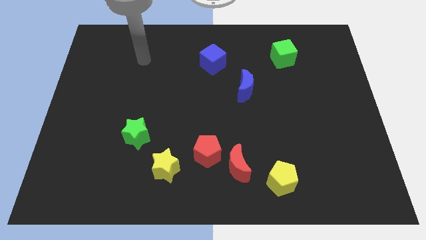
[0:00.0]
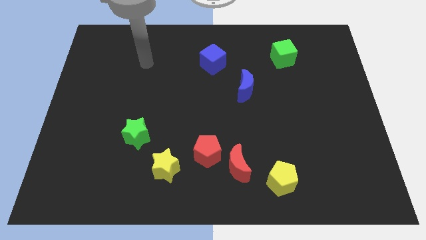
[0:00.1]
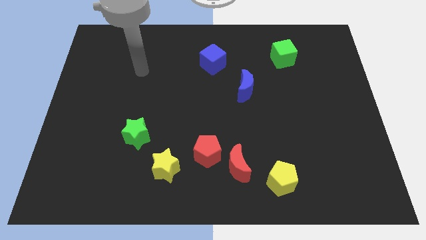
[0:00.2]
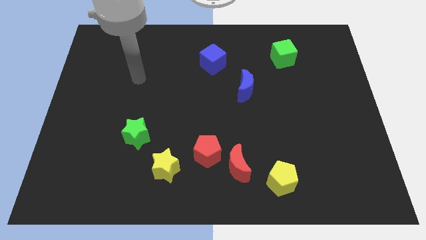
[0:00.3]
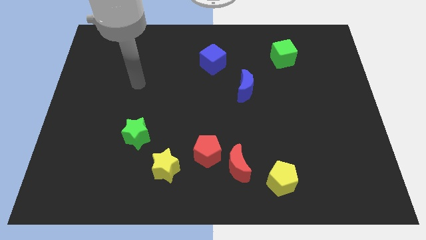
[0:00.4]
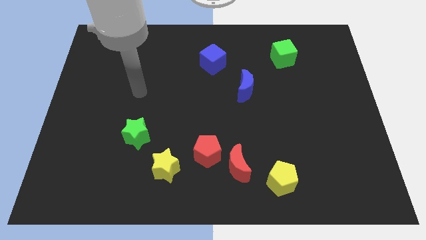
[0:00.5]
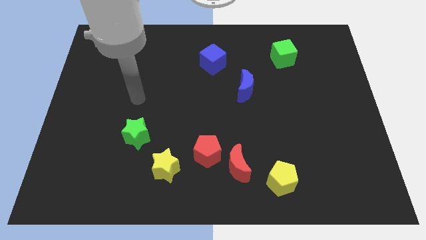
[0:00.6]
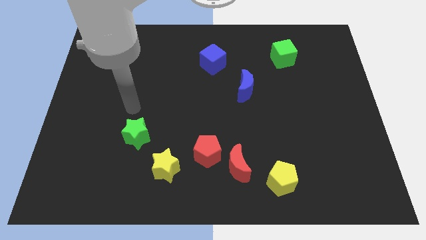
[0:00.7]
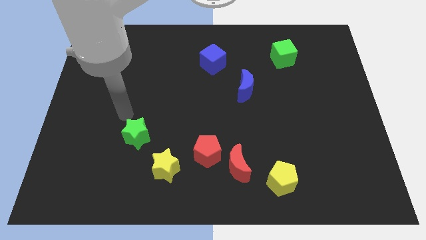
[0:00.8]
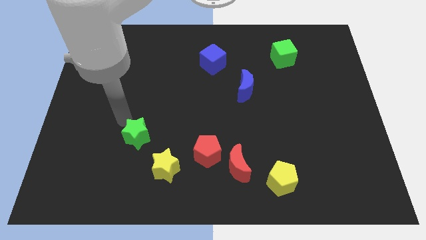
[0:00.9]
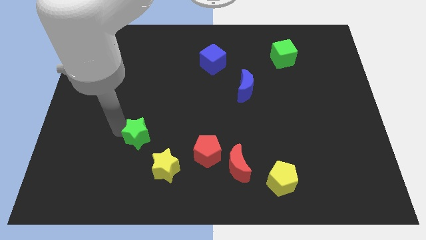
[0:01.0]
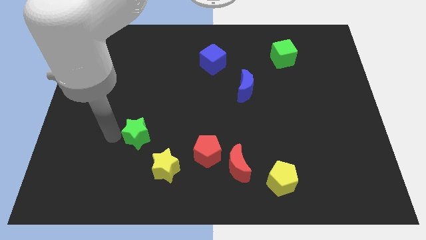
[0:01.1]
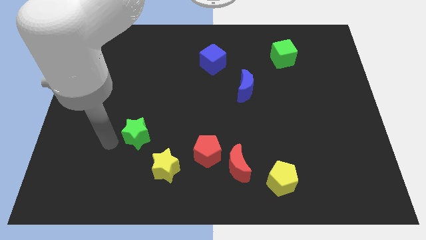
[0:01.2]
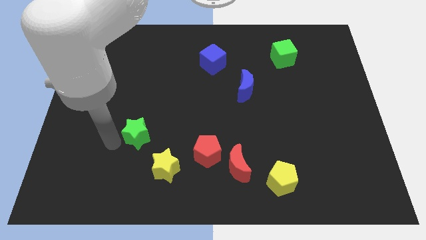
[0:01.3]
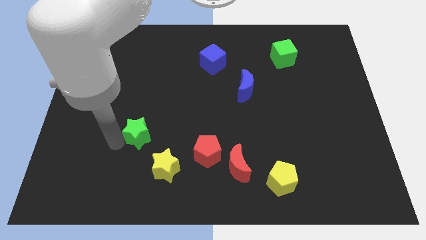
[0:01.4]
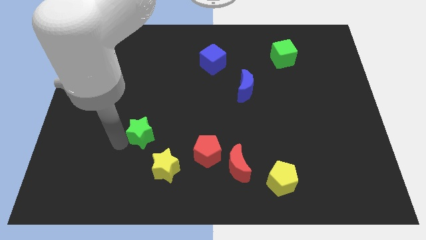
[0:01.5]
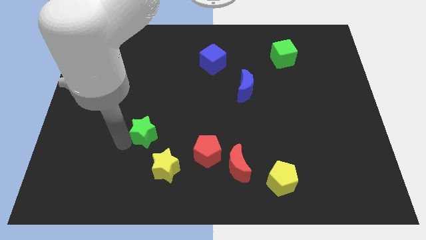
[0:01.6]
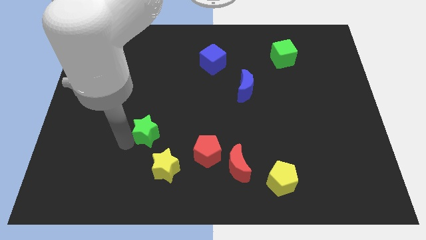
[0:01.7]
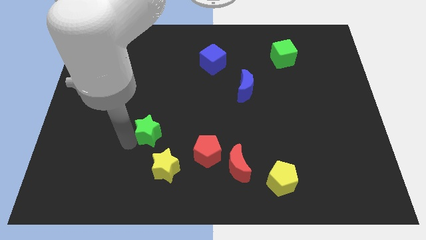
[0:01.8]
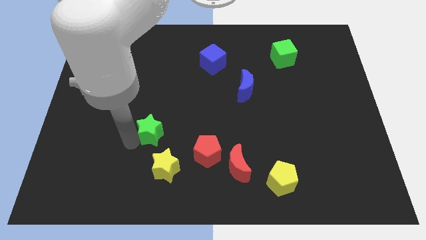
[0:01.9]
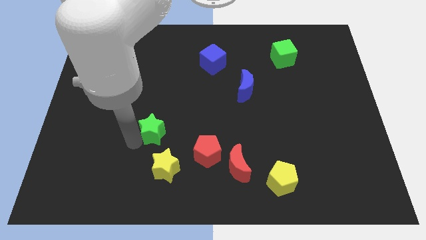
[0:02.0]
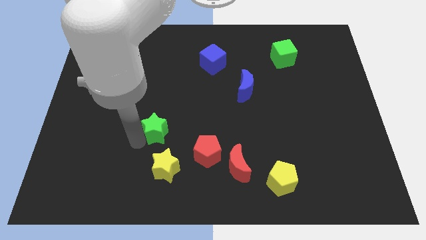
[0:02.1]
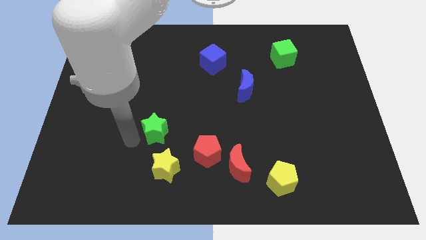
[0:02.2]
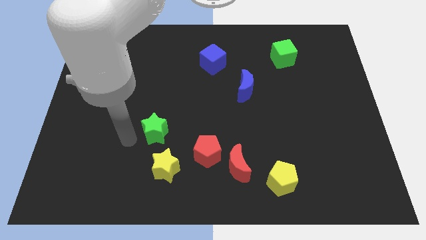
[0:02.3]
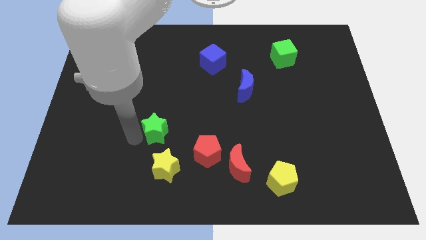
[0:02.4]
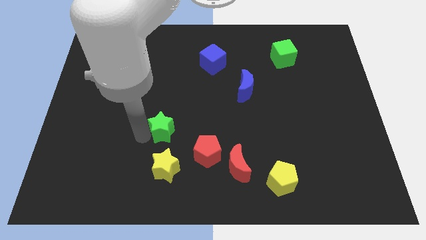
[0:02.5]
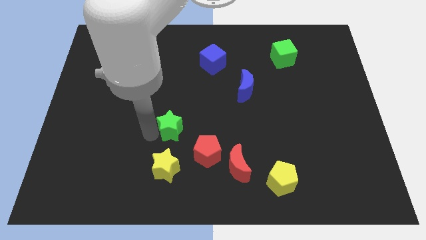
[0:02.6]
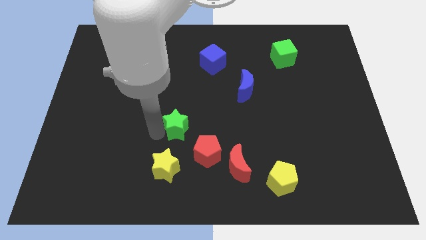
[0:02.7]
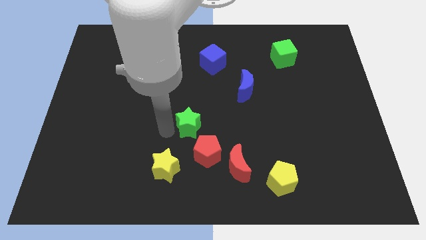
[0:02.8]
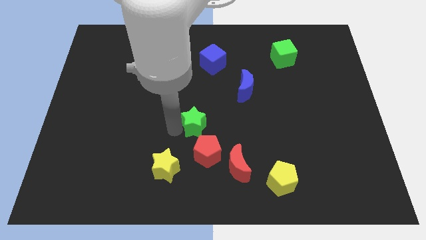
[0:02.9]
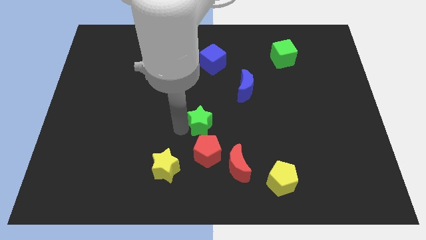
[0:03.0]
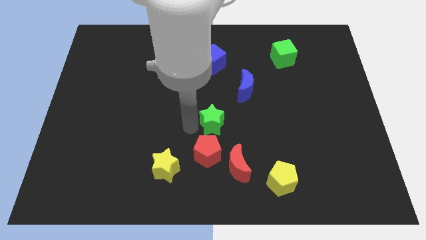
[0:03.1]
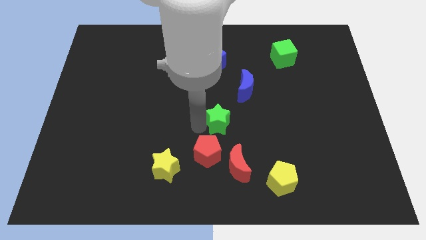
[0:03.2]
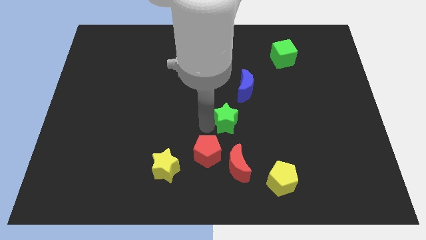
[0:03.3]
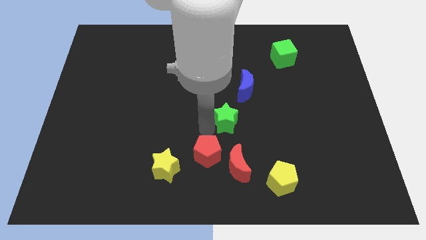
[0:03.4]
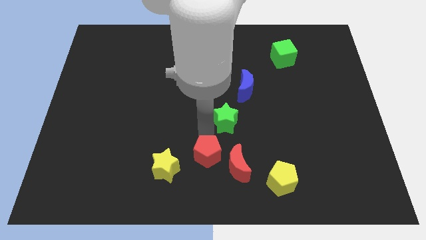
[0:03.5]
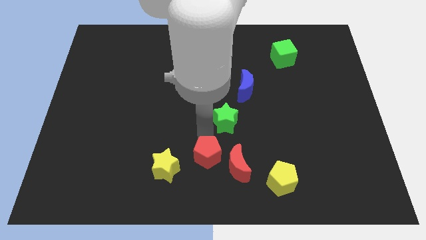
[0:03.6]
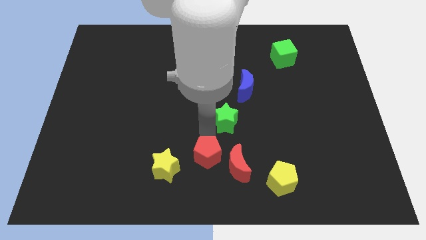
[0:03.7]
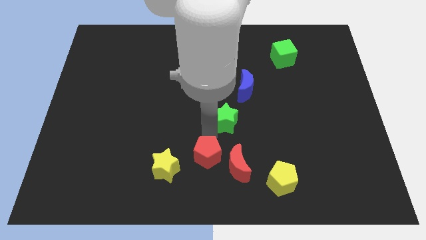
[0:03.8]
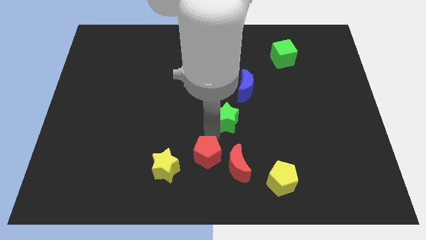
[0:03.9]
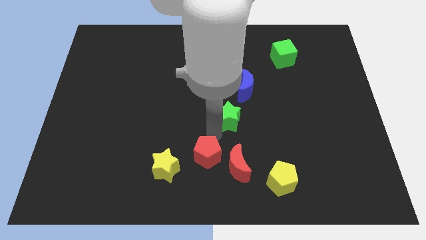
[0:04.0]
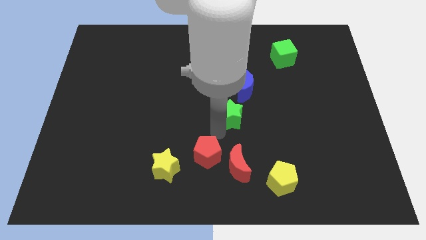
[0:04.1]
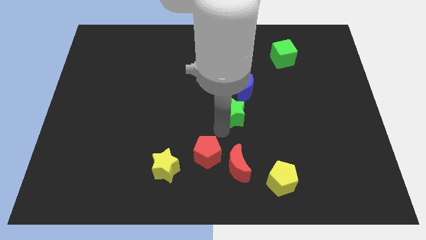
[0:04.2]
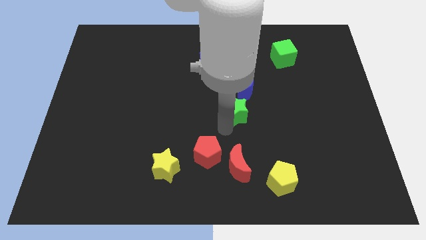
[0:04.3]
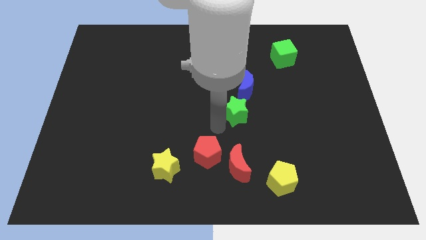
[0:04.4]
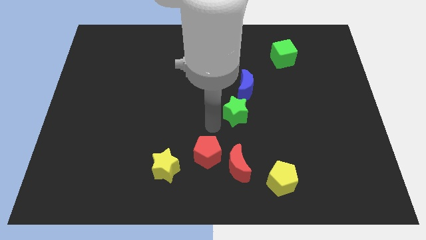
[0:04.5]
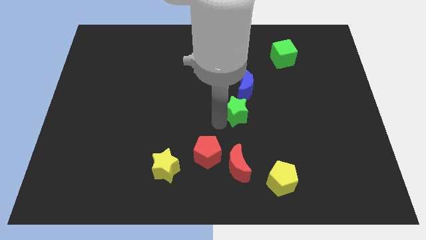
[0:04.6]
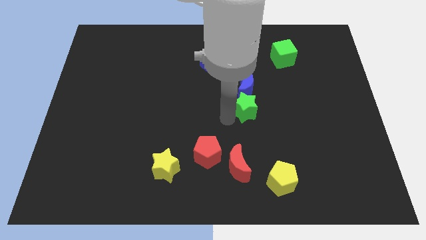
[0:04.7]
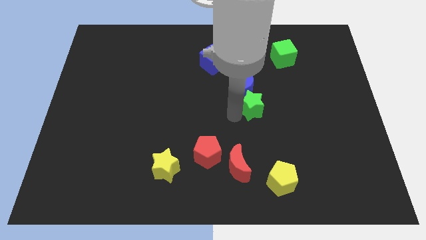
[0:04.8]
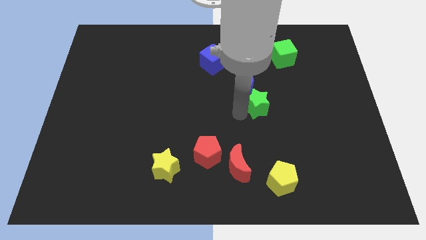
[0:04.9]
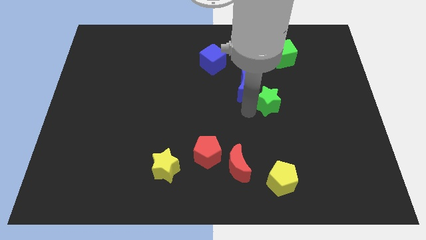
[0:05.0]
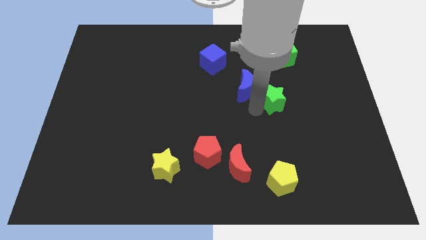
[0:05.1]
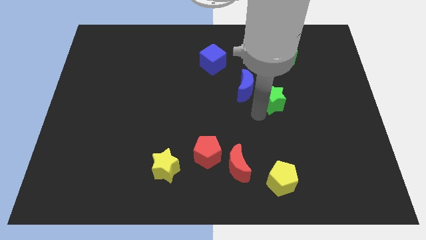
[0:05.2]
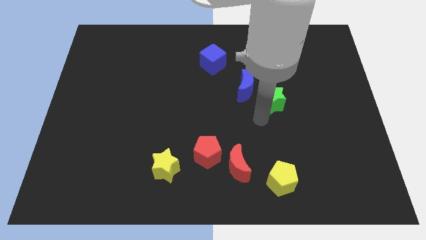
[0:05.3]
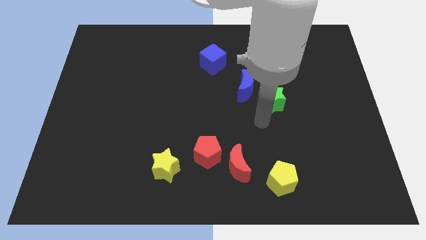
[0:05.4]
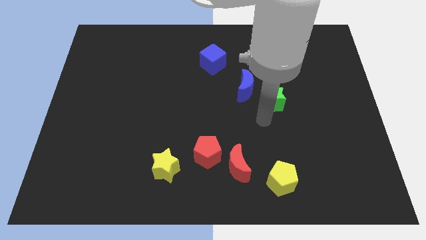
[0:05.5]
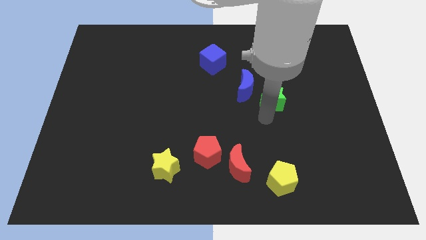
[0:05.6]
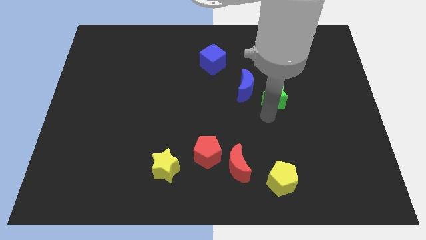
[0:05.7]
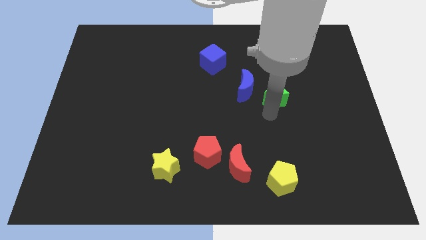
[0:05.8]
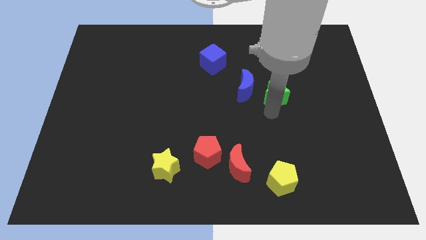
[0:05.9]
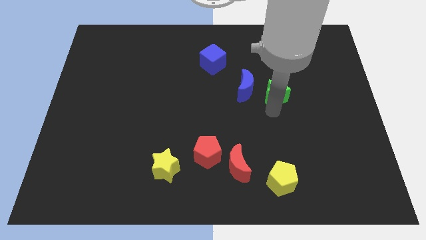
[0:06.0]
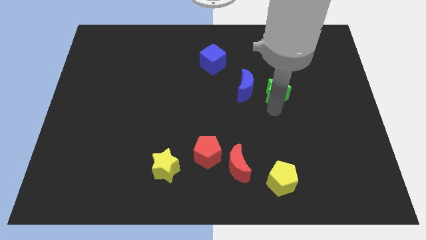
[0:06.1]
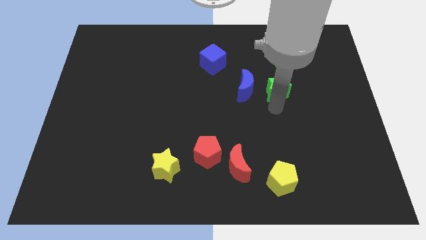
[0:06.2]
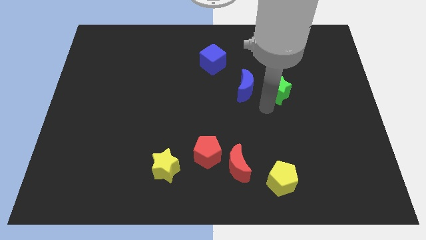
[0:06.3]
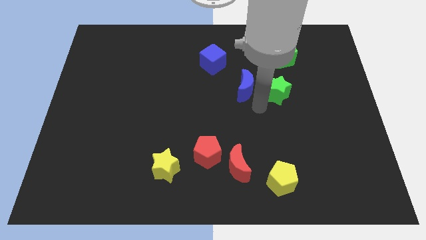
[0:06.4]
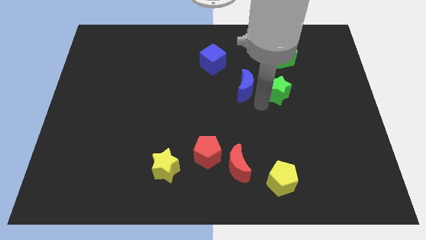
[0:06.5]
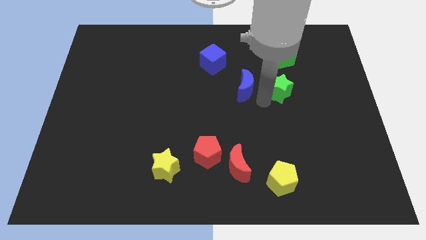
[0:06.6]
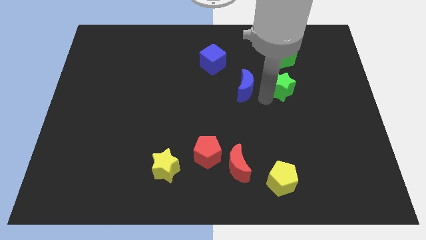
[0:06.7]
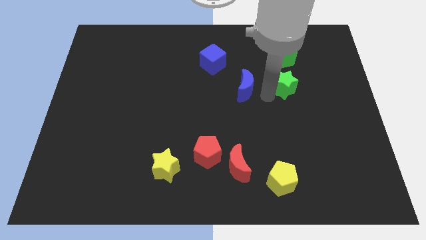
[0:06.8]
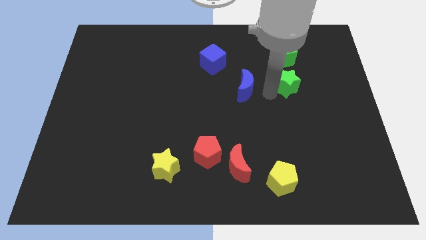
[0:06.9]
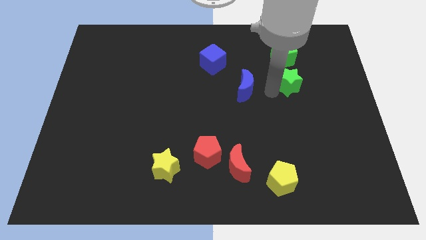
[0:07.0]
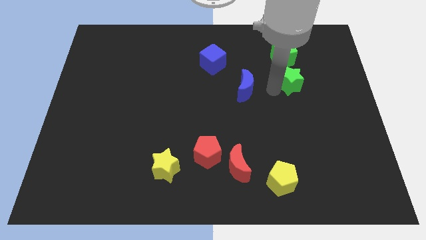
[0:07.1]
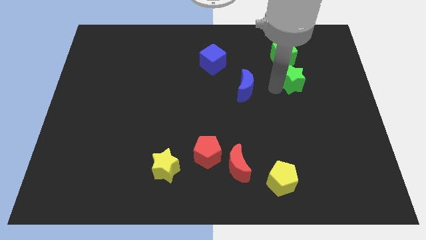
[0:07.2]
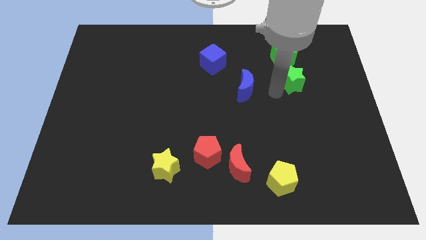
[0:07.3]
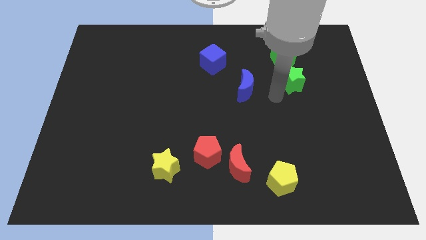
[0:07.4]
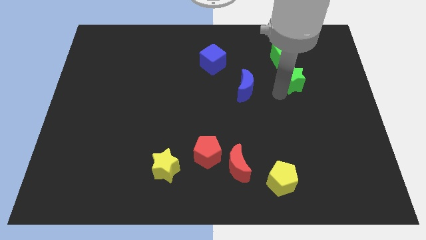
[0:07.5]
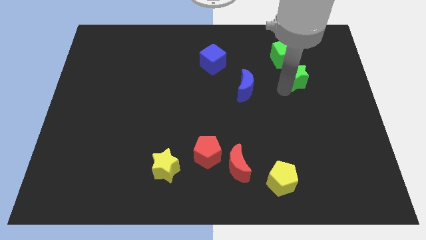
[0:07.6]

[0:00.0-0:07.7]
move the green star diagonally down and to the right of the green cube
